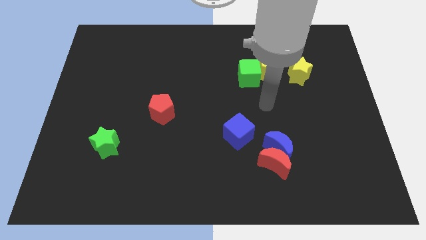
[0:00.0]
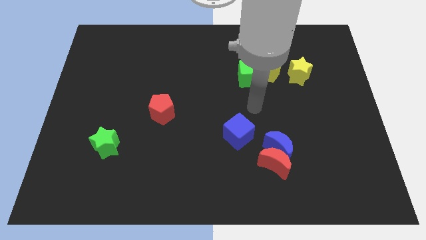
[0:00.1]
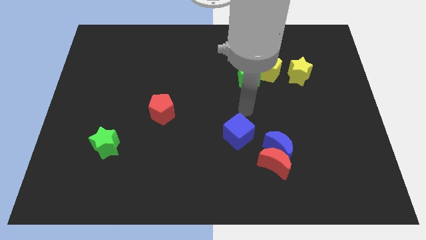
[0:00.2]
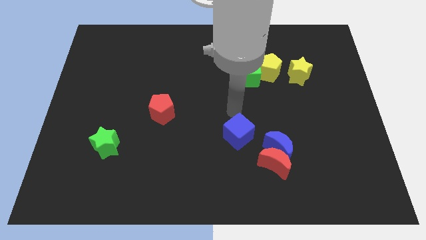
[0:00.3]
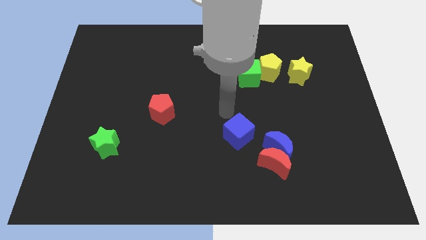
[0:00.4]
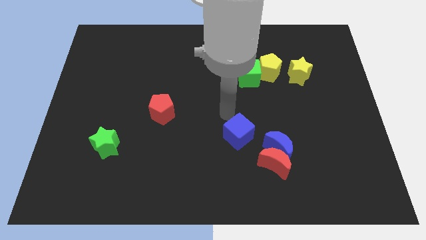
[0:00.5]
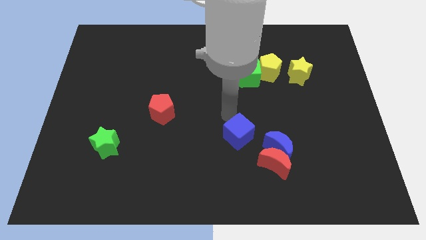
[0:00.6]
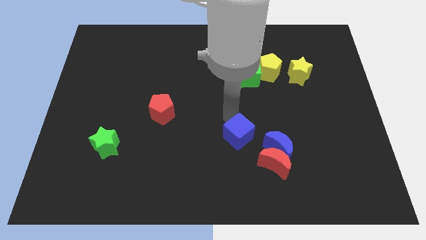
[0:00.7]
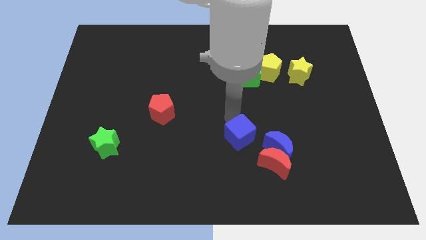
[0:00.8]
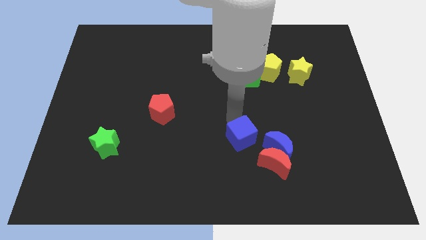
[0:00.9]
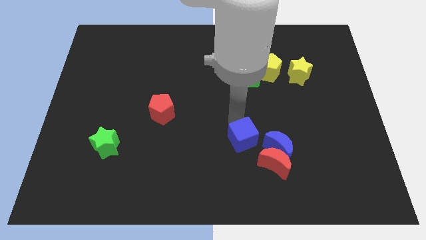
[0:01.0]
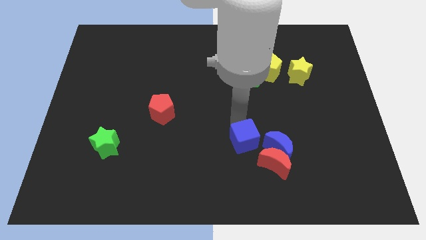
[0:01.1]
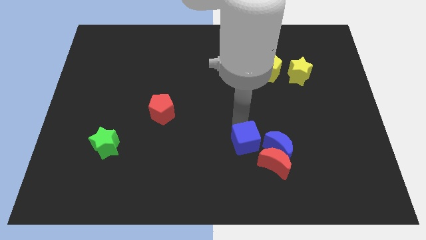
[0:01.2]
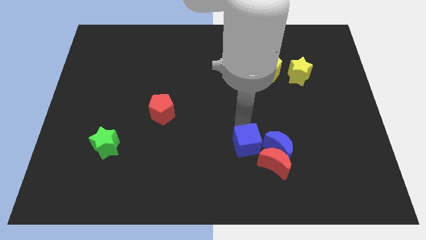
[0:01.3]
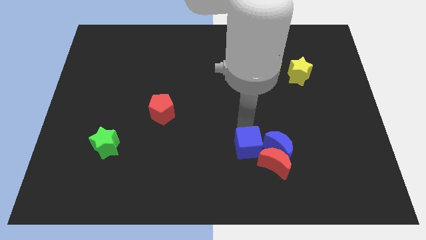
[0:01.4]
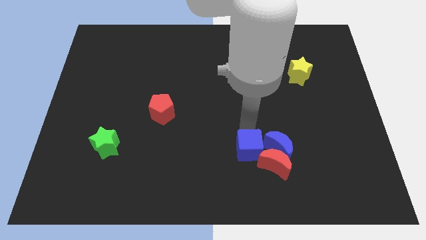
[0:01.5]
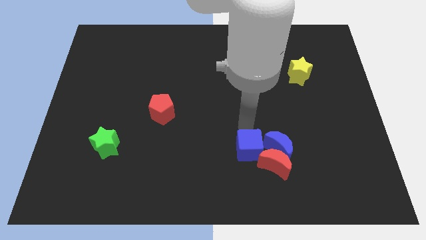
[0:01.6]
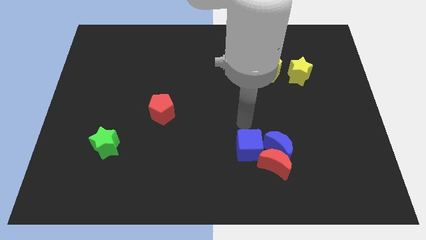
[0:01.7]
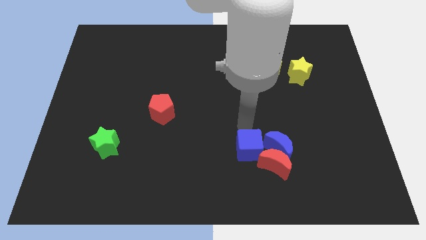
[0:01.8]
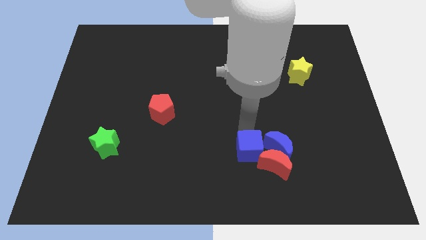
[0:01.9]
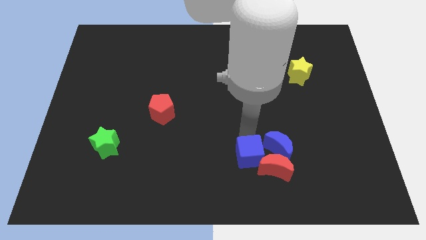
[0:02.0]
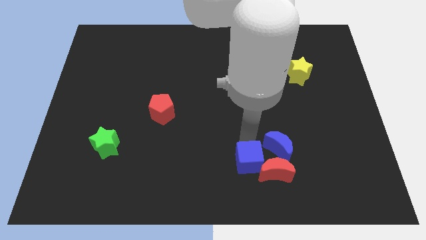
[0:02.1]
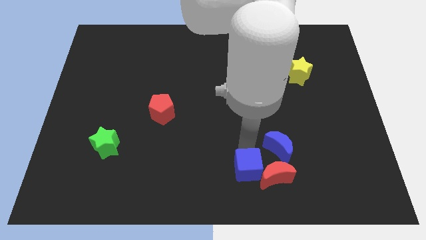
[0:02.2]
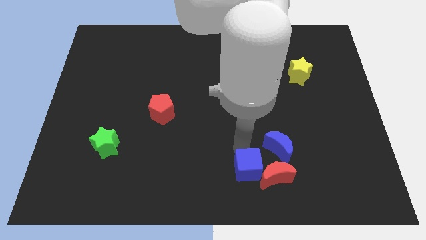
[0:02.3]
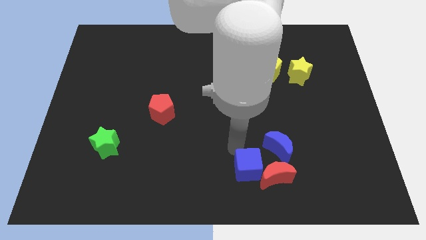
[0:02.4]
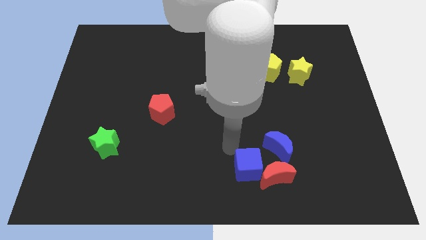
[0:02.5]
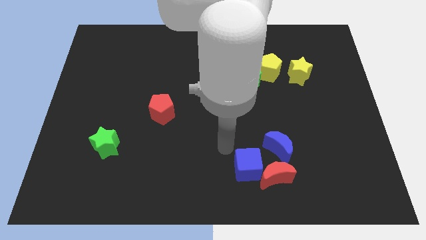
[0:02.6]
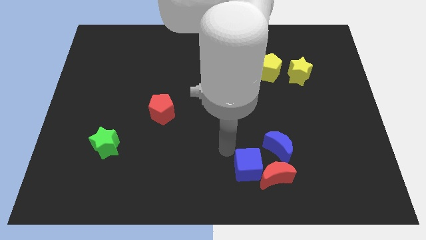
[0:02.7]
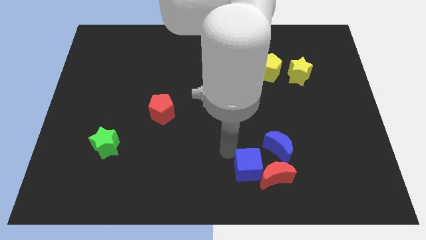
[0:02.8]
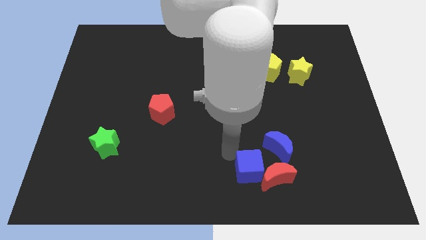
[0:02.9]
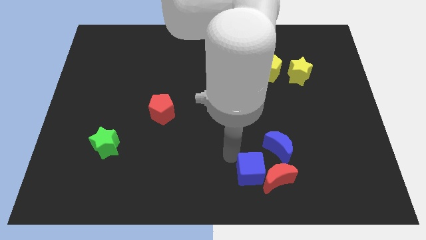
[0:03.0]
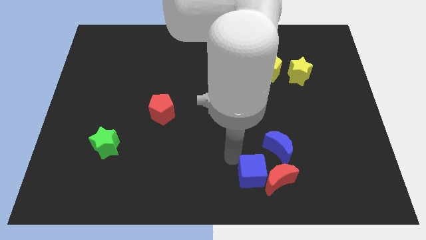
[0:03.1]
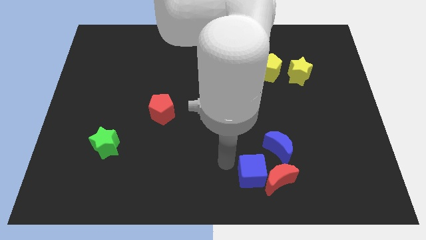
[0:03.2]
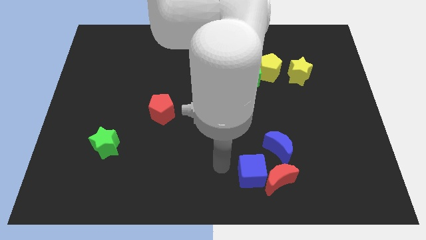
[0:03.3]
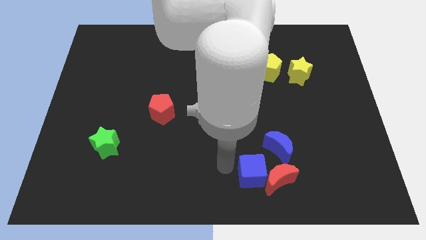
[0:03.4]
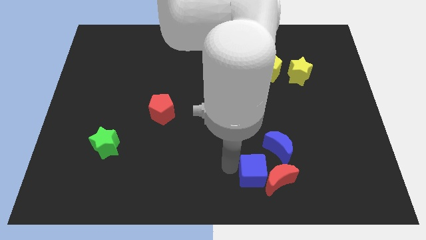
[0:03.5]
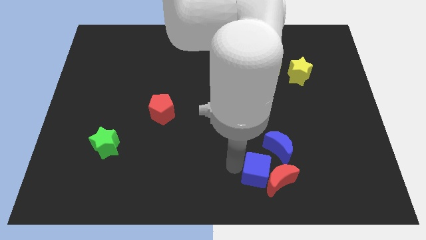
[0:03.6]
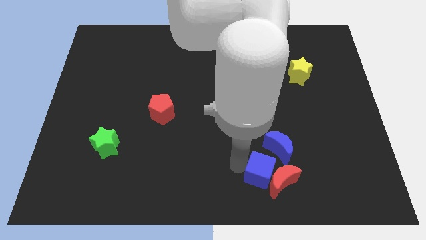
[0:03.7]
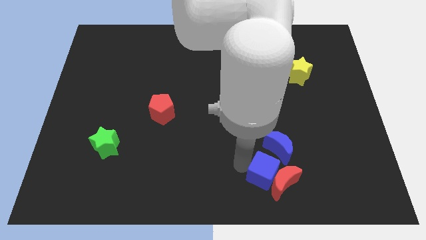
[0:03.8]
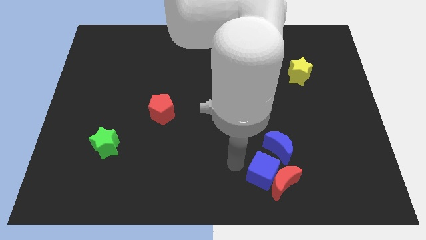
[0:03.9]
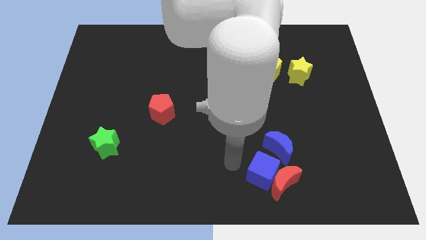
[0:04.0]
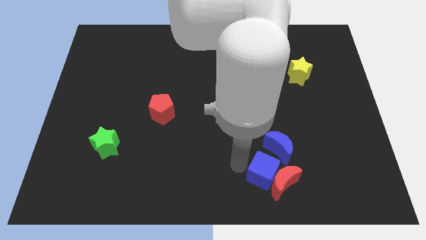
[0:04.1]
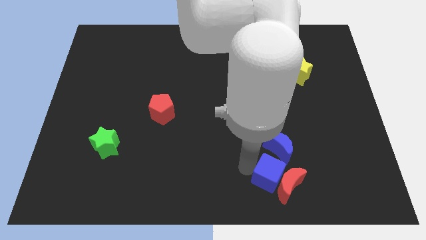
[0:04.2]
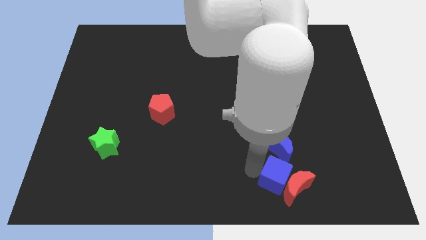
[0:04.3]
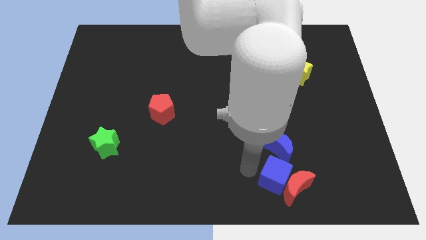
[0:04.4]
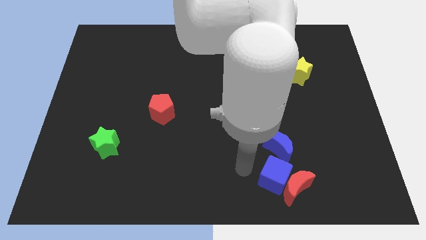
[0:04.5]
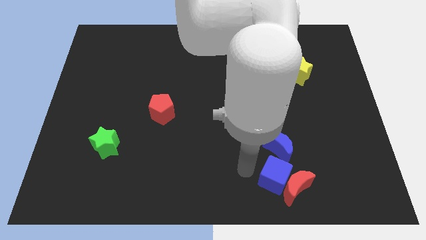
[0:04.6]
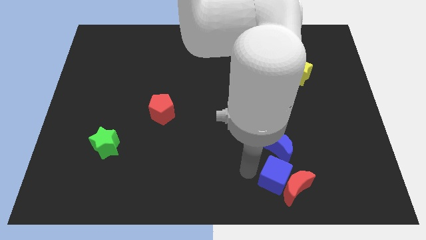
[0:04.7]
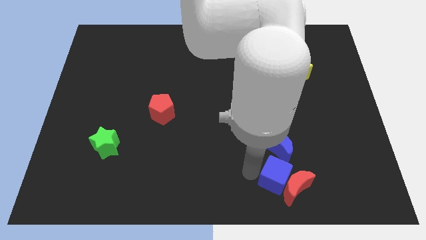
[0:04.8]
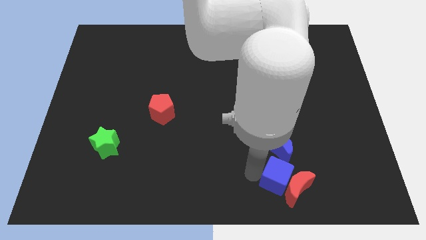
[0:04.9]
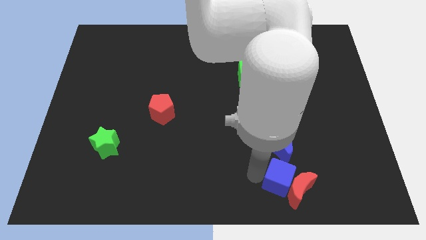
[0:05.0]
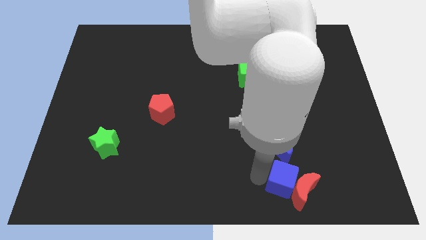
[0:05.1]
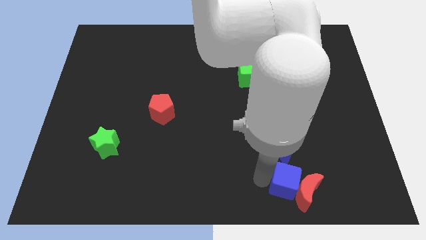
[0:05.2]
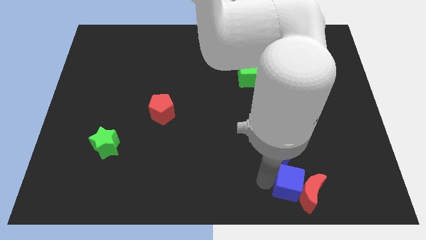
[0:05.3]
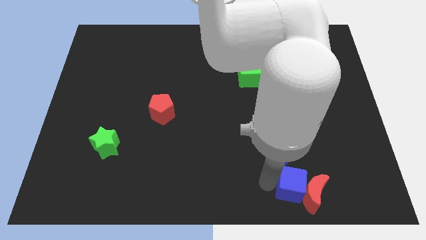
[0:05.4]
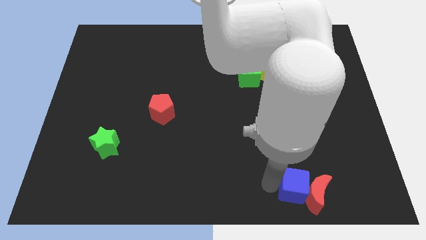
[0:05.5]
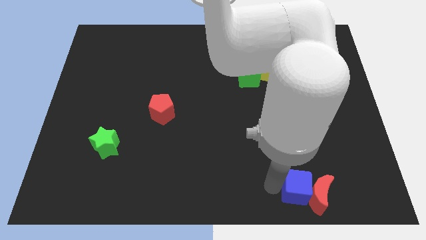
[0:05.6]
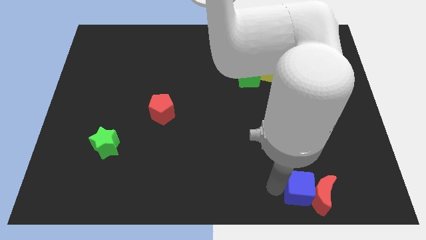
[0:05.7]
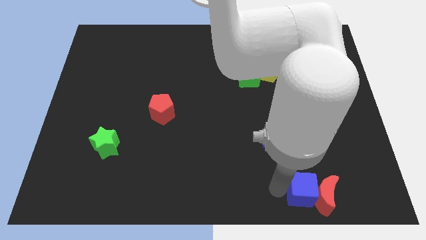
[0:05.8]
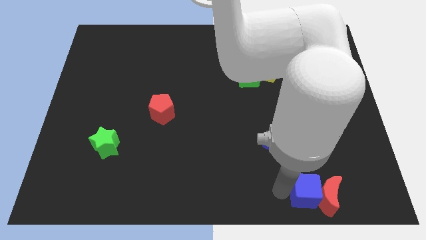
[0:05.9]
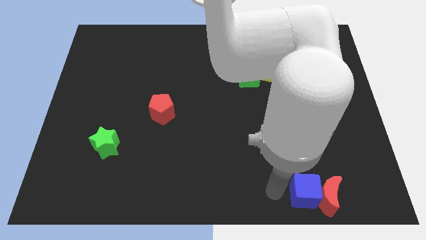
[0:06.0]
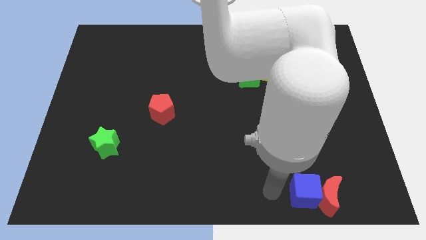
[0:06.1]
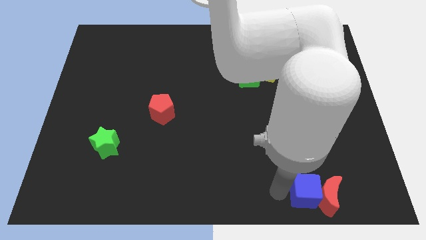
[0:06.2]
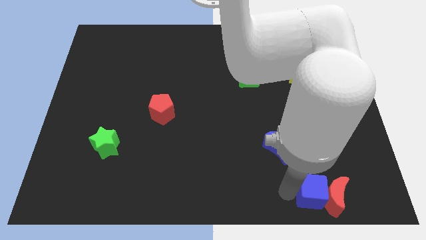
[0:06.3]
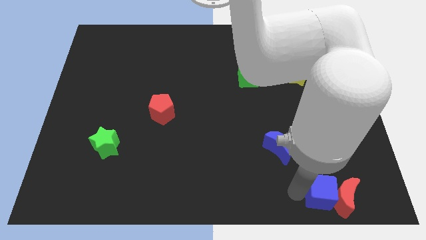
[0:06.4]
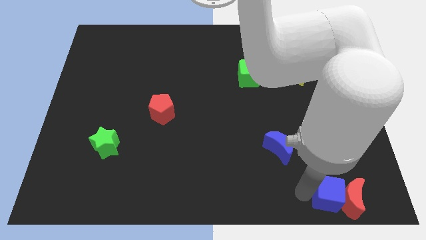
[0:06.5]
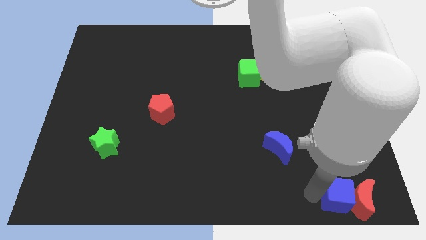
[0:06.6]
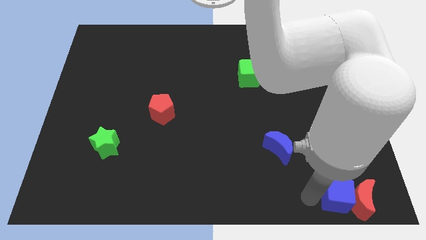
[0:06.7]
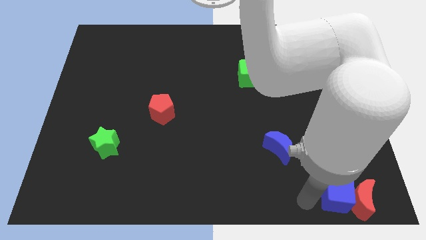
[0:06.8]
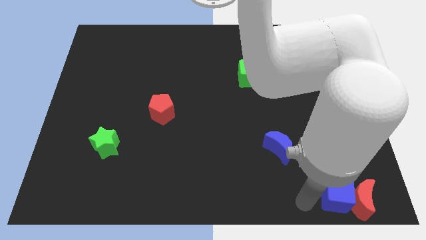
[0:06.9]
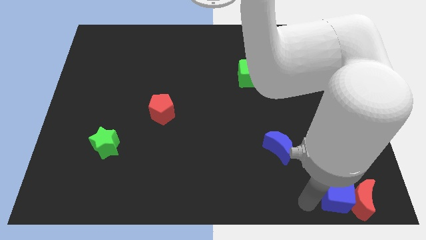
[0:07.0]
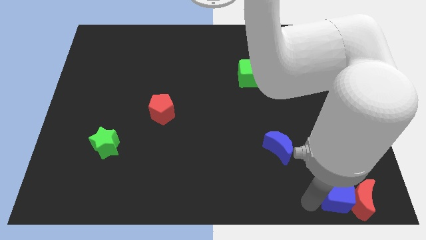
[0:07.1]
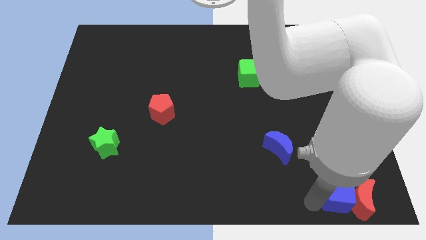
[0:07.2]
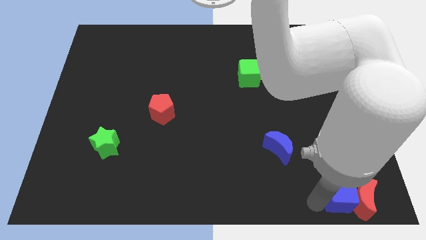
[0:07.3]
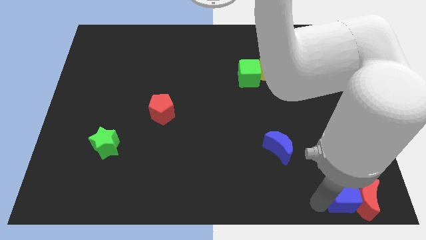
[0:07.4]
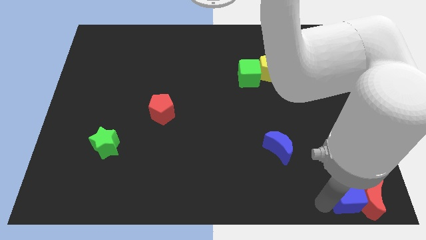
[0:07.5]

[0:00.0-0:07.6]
put the blue cube to the bottom right
